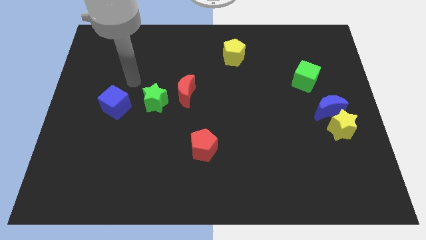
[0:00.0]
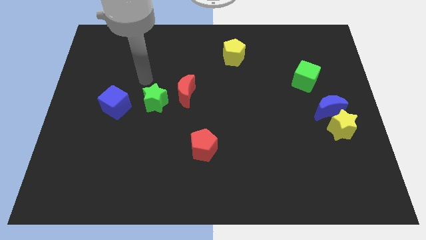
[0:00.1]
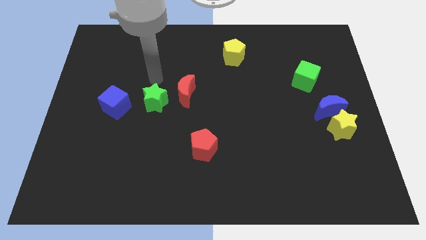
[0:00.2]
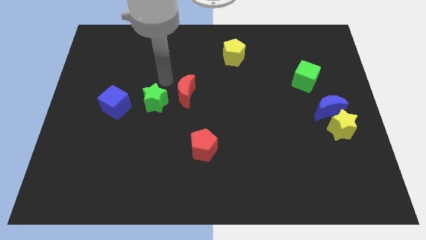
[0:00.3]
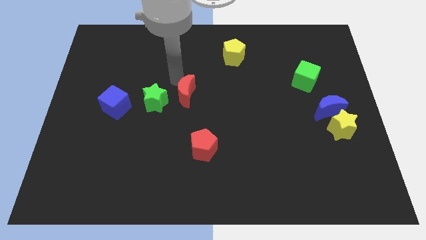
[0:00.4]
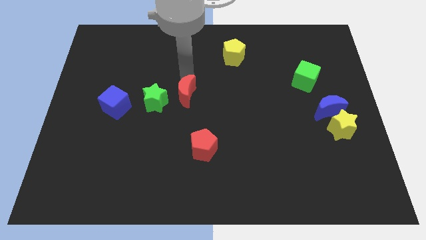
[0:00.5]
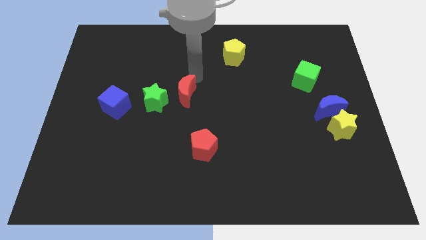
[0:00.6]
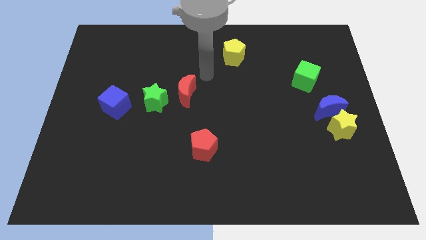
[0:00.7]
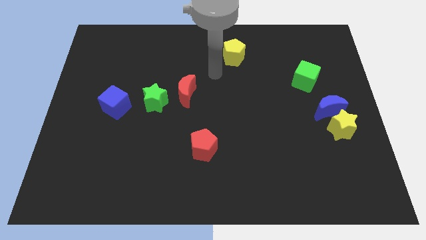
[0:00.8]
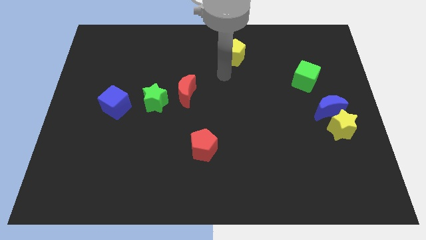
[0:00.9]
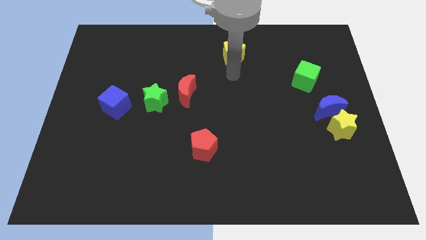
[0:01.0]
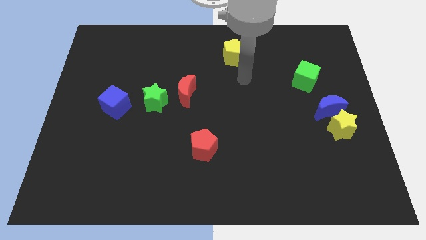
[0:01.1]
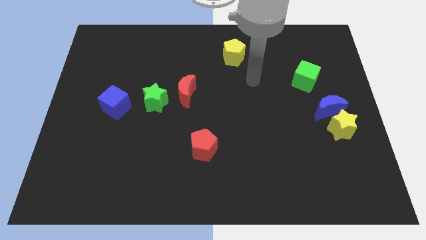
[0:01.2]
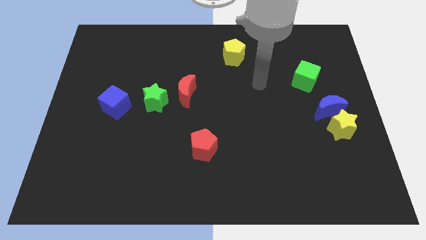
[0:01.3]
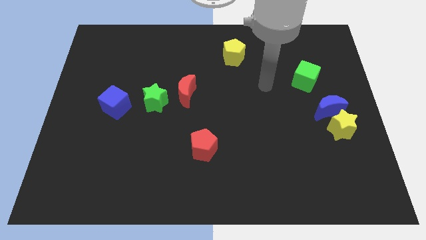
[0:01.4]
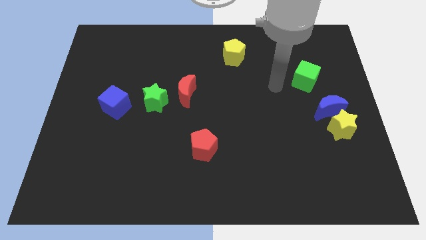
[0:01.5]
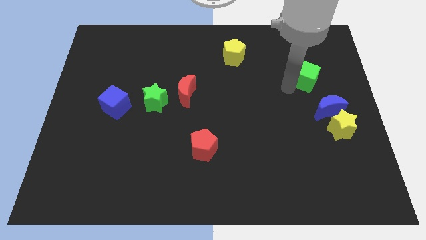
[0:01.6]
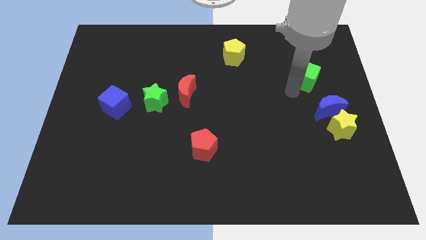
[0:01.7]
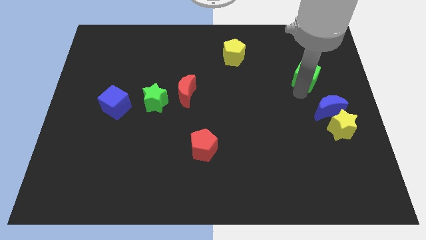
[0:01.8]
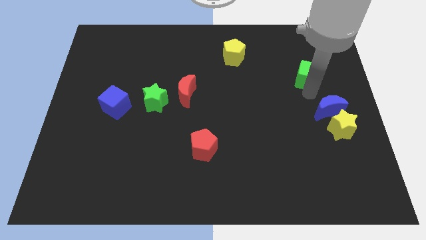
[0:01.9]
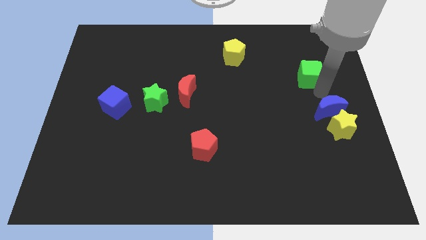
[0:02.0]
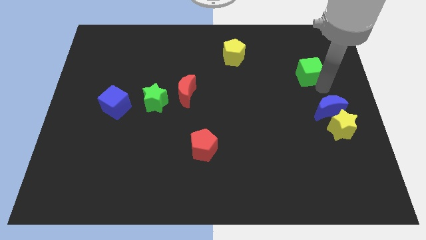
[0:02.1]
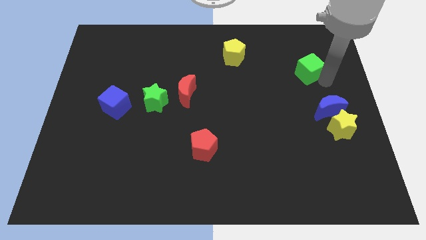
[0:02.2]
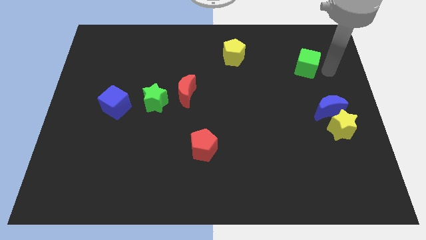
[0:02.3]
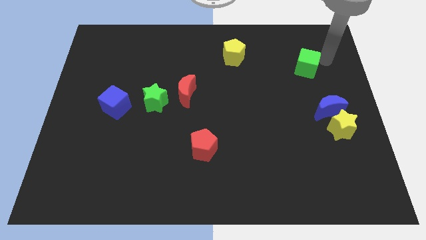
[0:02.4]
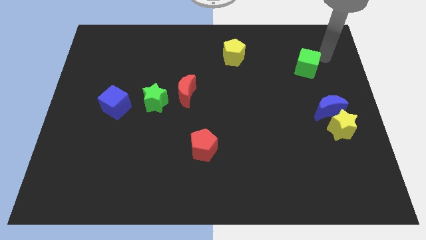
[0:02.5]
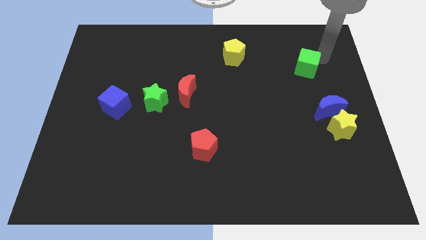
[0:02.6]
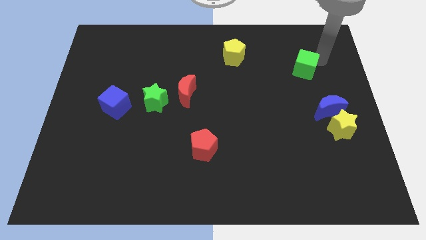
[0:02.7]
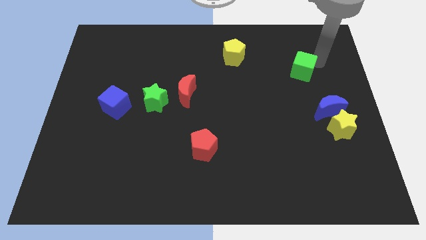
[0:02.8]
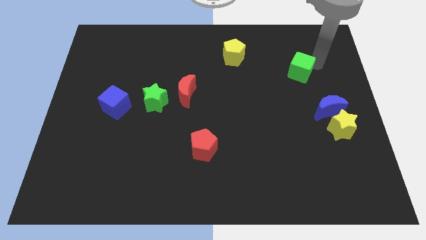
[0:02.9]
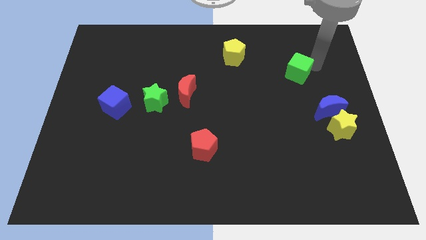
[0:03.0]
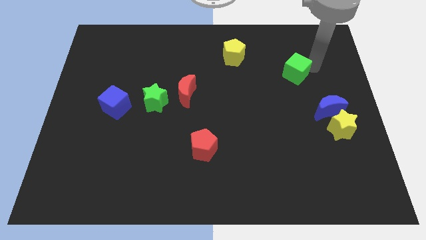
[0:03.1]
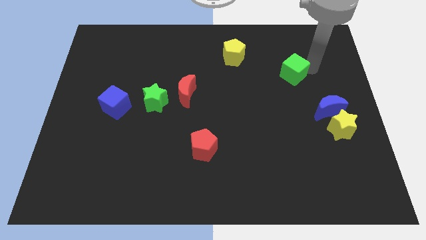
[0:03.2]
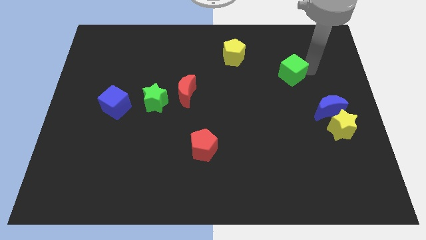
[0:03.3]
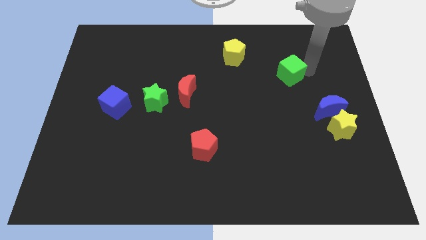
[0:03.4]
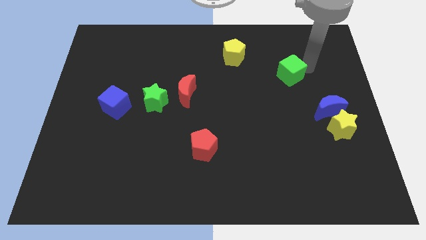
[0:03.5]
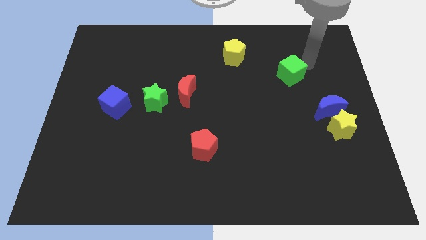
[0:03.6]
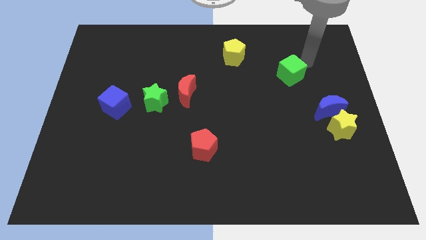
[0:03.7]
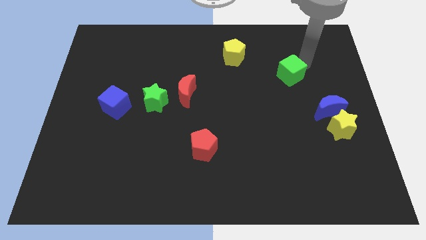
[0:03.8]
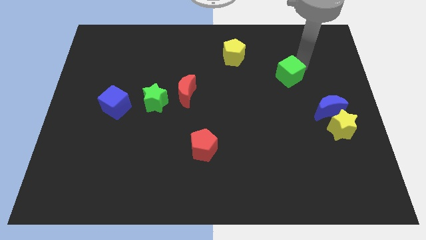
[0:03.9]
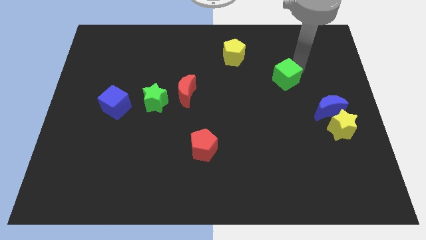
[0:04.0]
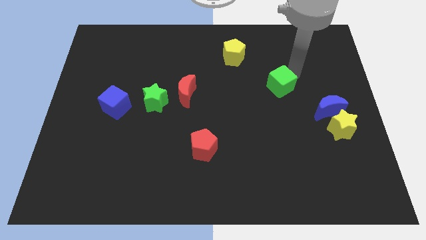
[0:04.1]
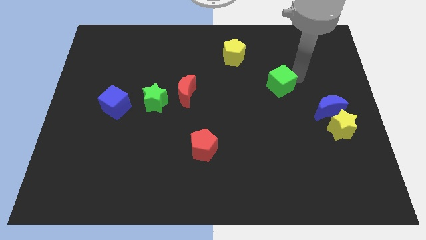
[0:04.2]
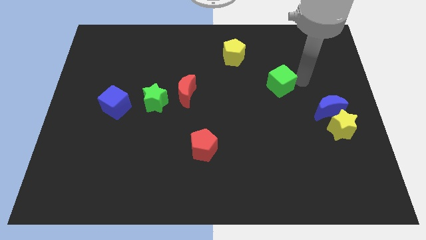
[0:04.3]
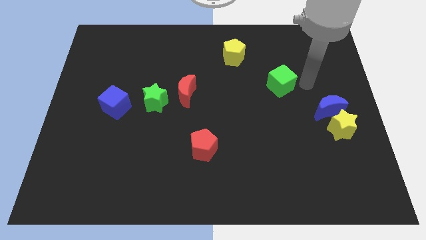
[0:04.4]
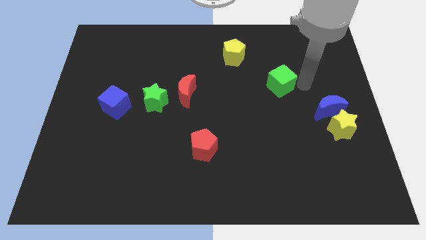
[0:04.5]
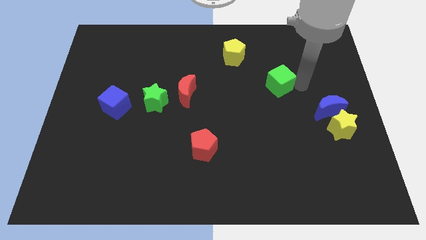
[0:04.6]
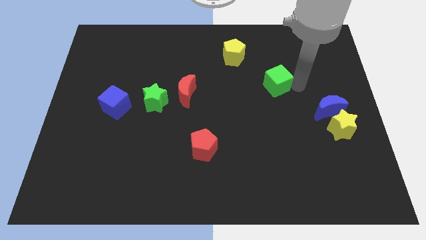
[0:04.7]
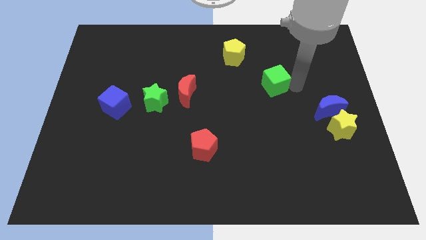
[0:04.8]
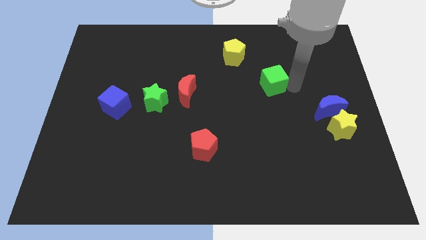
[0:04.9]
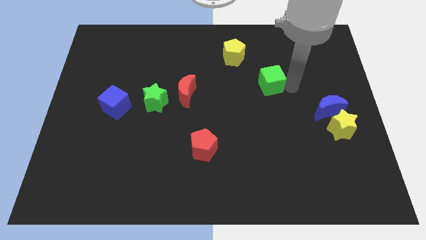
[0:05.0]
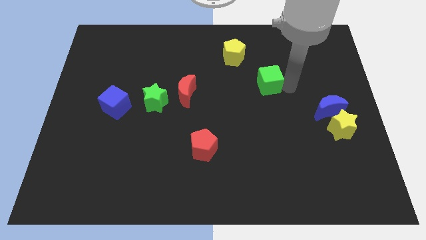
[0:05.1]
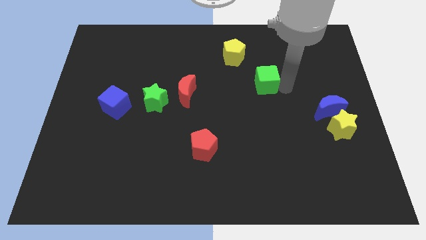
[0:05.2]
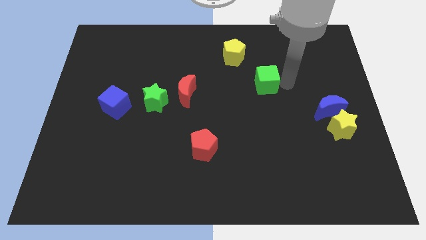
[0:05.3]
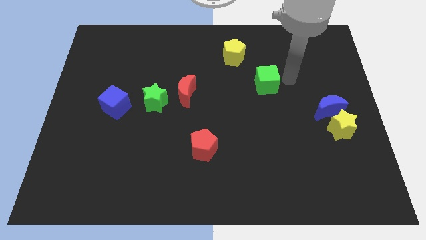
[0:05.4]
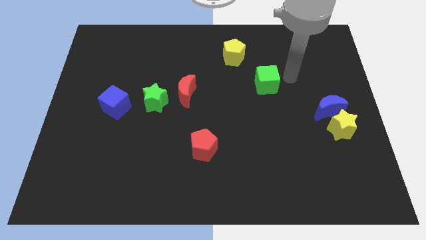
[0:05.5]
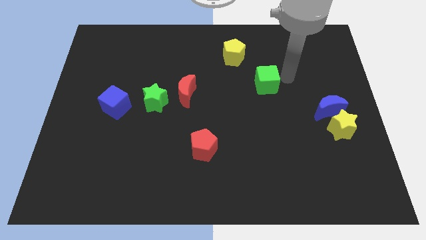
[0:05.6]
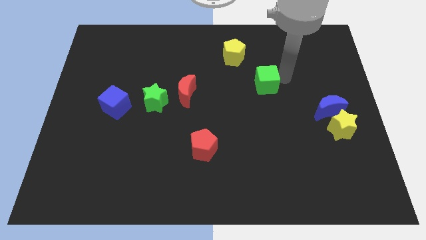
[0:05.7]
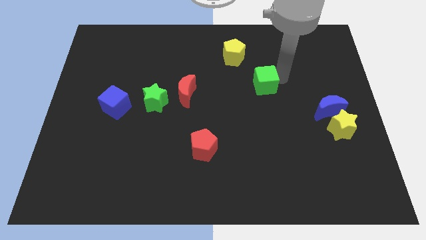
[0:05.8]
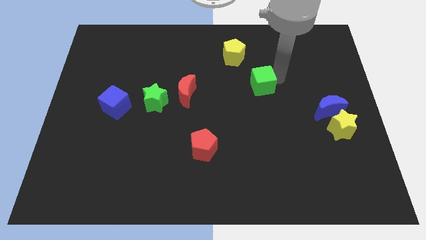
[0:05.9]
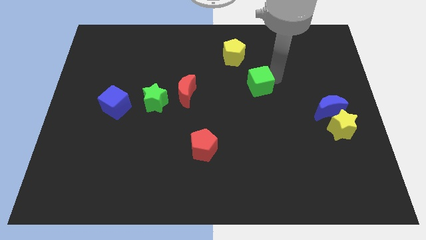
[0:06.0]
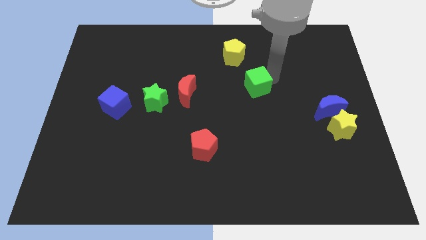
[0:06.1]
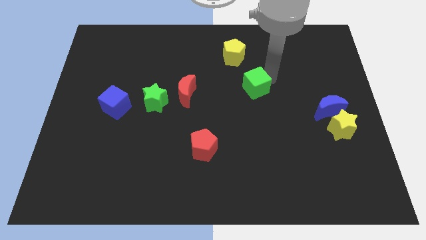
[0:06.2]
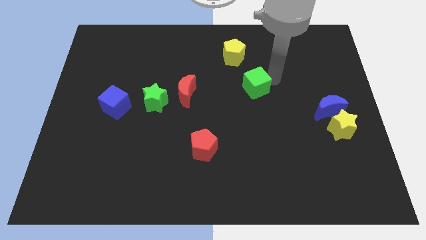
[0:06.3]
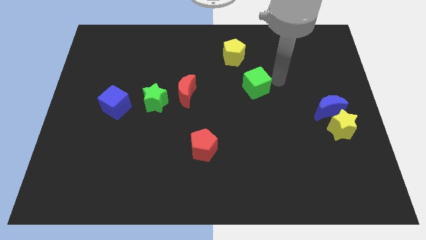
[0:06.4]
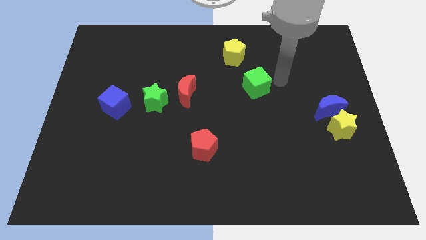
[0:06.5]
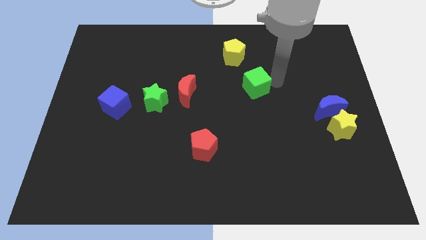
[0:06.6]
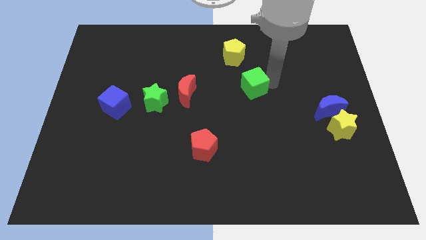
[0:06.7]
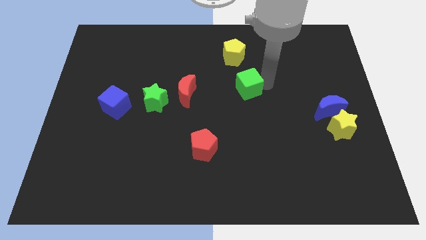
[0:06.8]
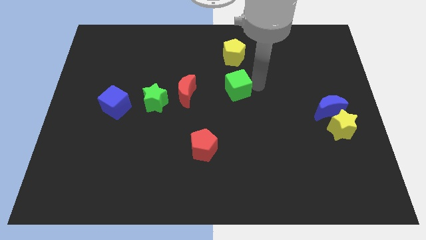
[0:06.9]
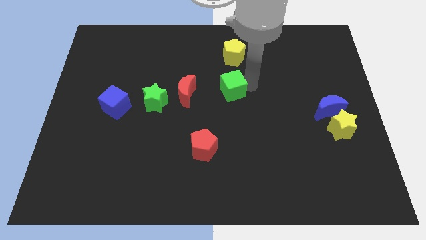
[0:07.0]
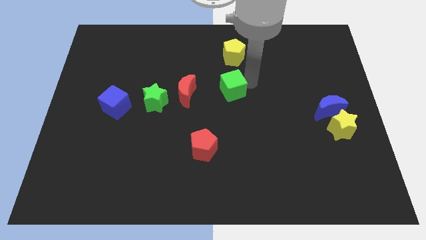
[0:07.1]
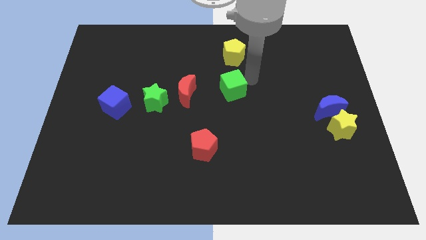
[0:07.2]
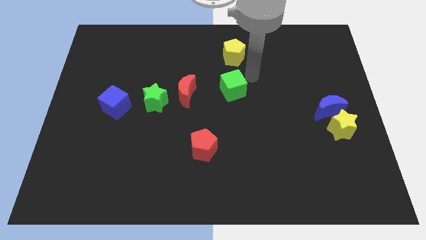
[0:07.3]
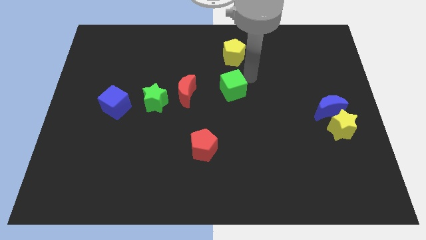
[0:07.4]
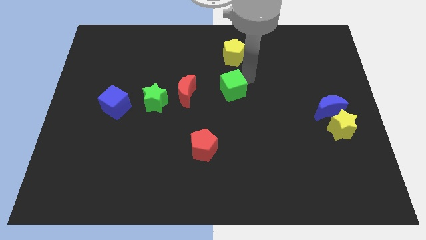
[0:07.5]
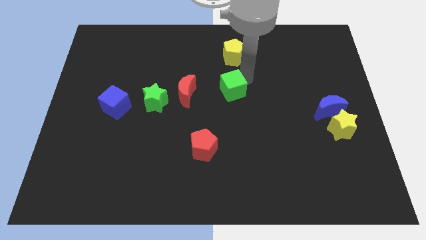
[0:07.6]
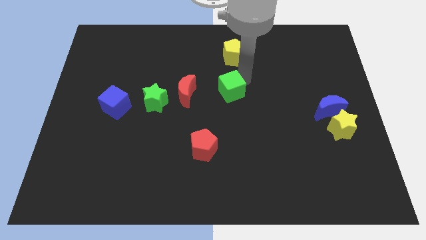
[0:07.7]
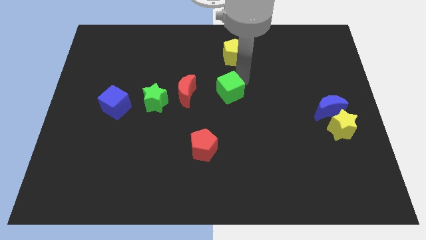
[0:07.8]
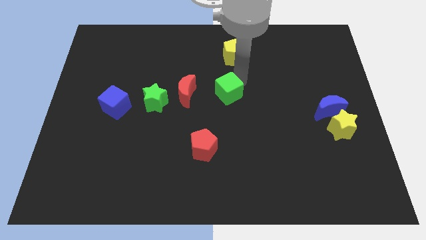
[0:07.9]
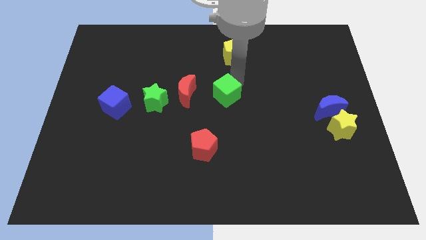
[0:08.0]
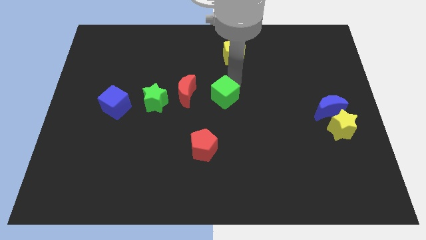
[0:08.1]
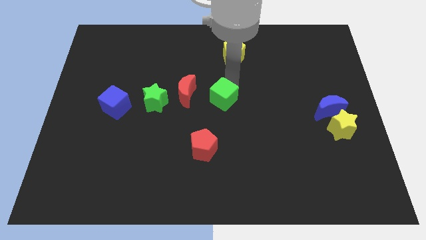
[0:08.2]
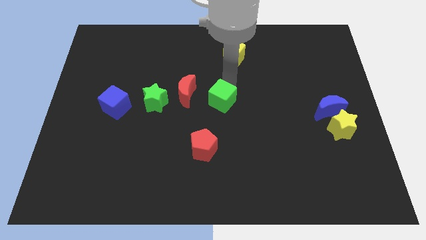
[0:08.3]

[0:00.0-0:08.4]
move the green cube diagonally down and to the right of the red moon
